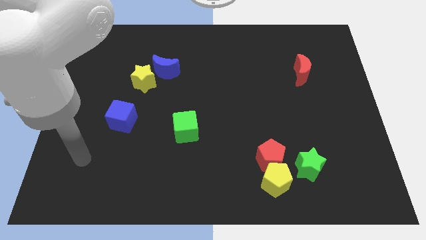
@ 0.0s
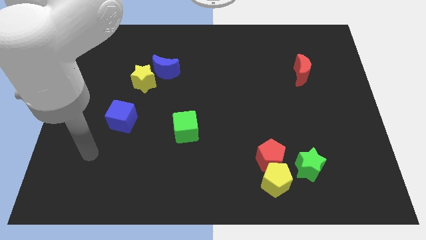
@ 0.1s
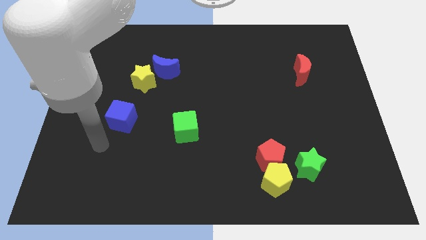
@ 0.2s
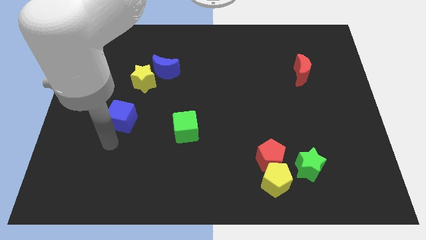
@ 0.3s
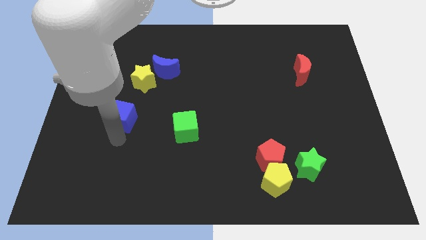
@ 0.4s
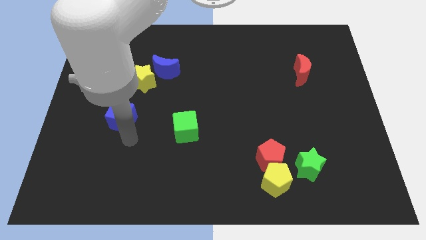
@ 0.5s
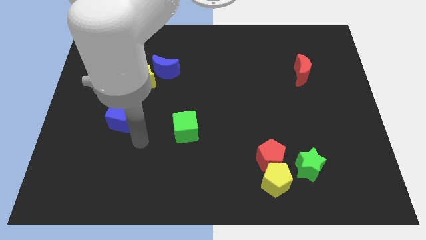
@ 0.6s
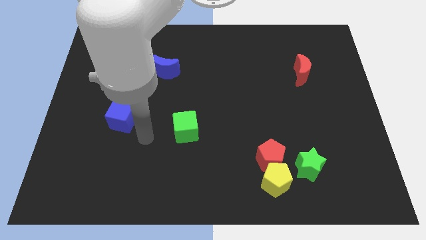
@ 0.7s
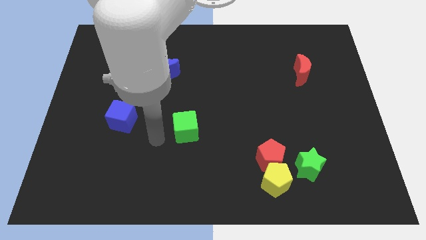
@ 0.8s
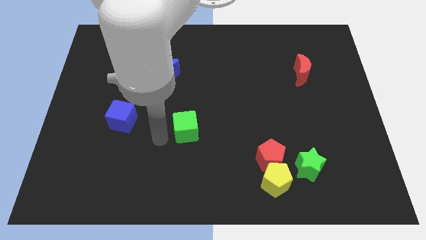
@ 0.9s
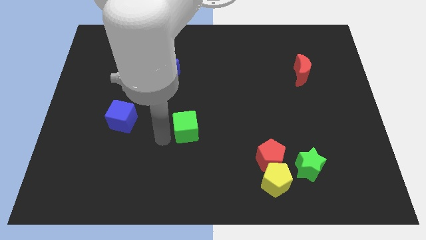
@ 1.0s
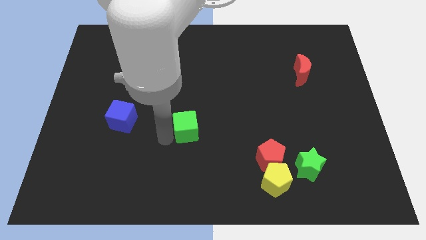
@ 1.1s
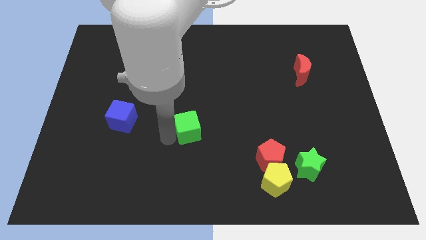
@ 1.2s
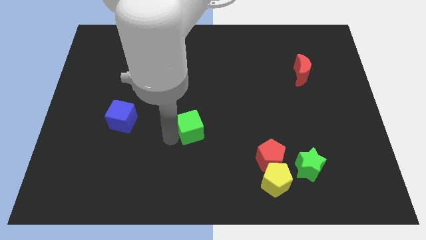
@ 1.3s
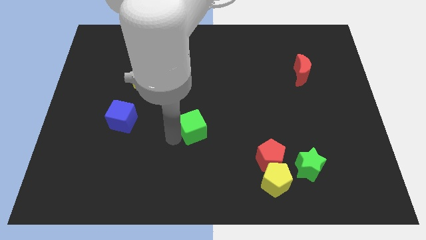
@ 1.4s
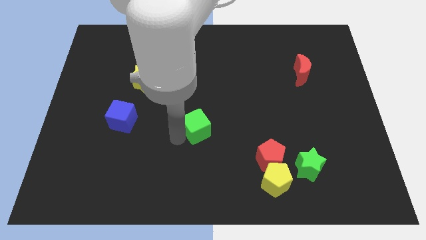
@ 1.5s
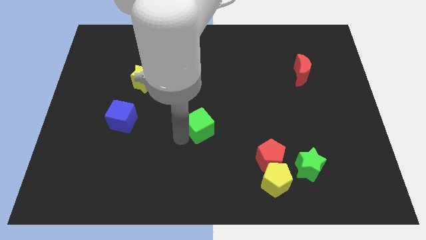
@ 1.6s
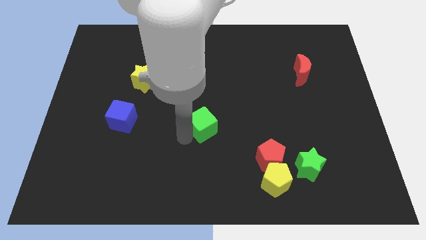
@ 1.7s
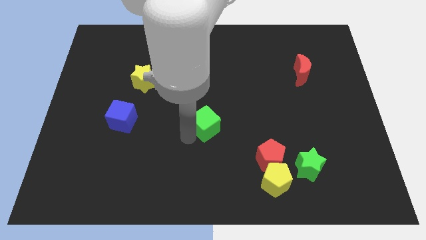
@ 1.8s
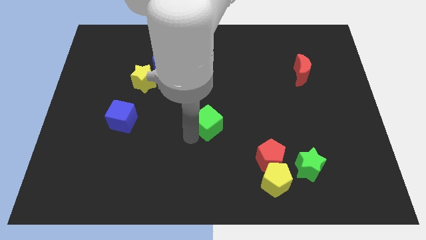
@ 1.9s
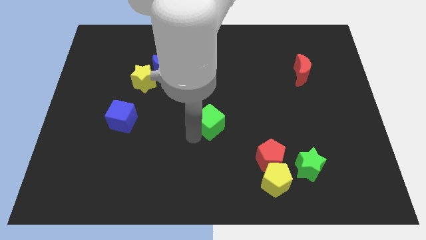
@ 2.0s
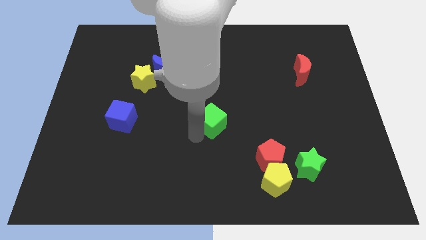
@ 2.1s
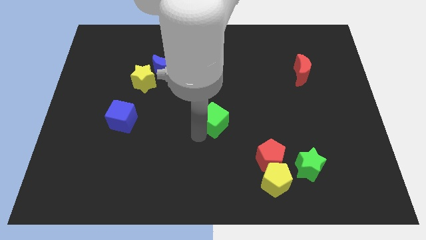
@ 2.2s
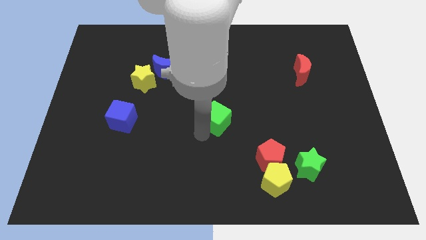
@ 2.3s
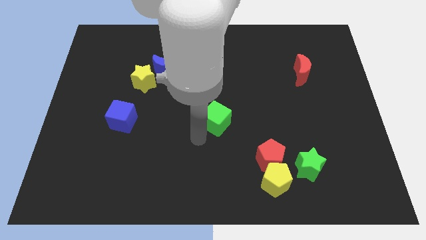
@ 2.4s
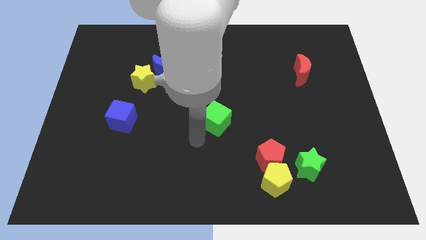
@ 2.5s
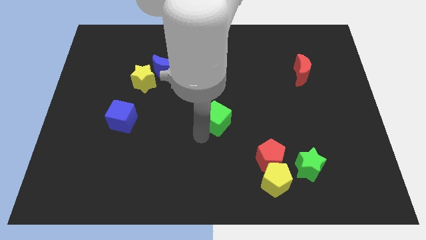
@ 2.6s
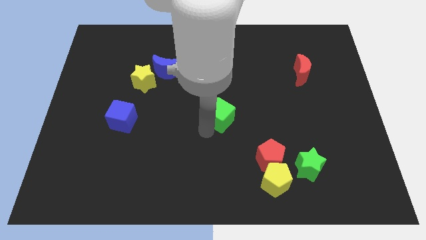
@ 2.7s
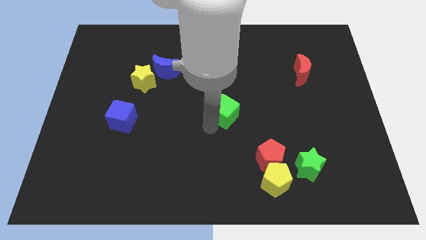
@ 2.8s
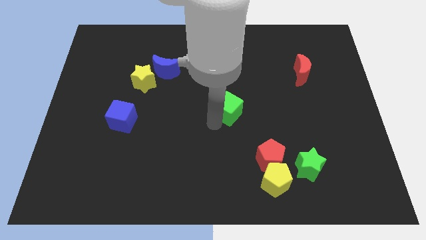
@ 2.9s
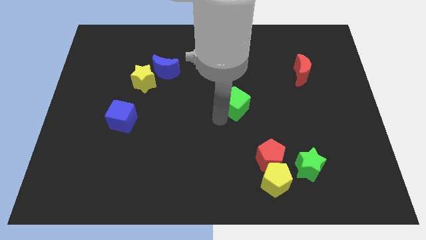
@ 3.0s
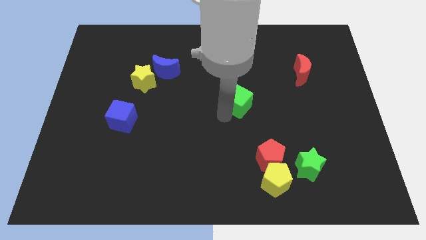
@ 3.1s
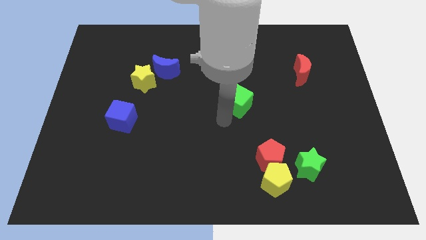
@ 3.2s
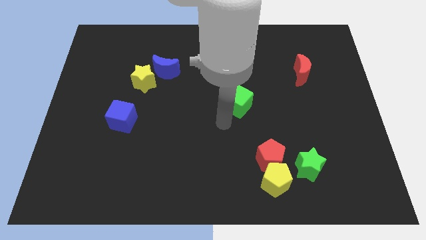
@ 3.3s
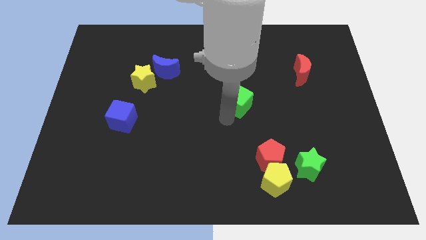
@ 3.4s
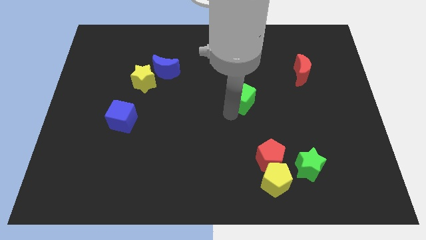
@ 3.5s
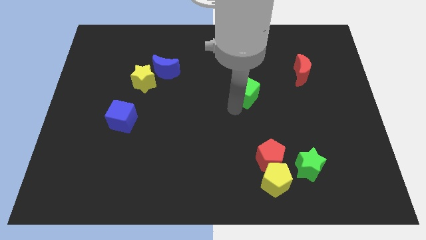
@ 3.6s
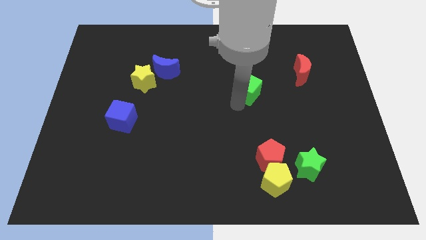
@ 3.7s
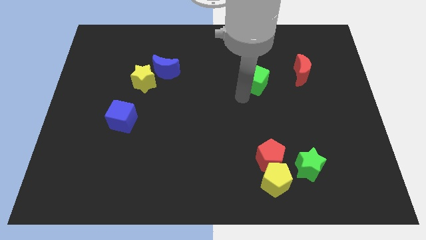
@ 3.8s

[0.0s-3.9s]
move the green cube upwards and right

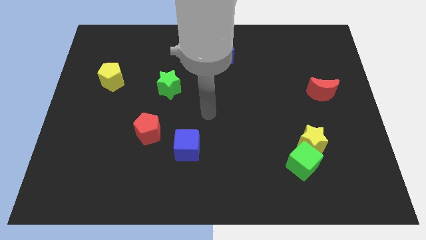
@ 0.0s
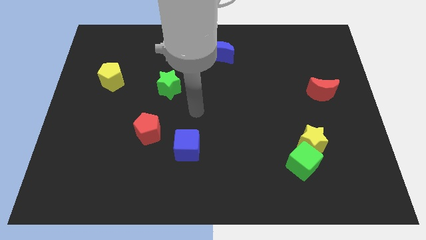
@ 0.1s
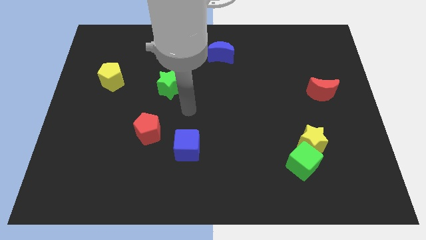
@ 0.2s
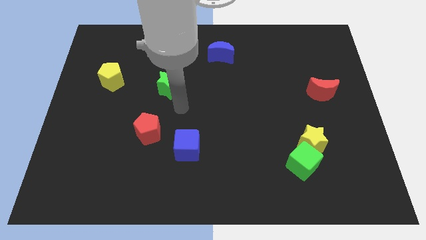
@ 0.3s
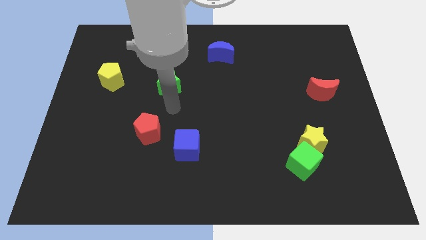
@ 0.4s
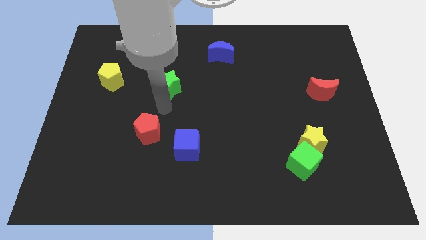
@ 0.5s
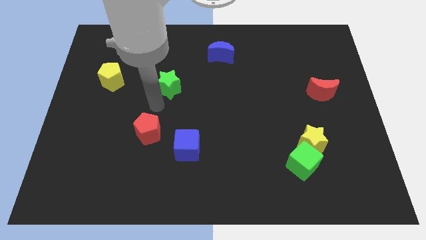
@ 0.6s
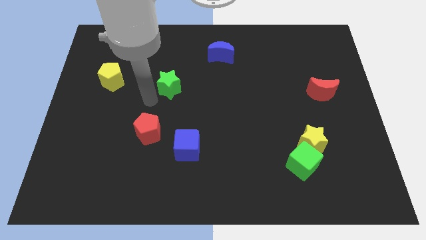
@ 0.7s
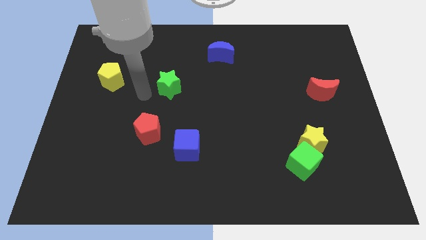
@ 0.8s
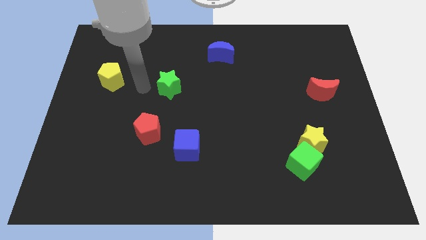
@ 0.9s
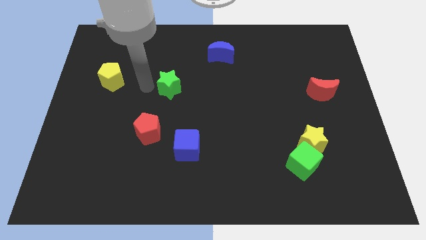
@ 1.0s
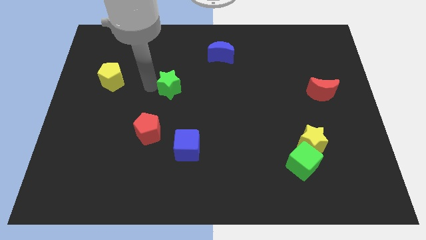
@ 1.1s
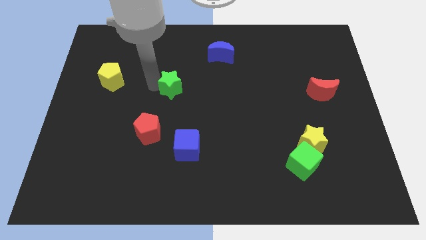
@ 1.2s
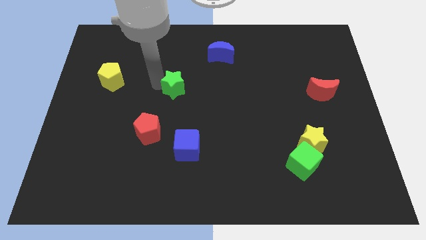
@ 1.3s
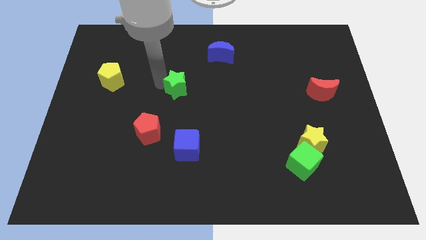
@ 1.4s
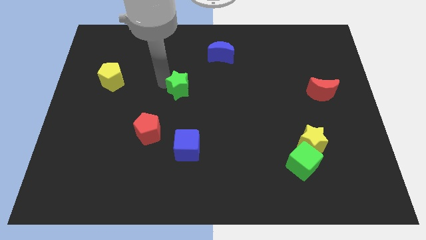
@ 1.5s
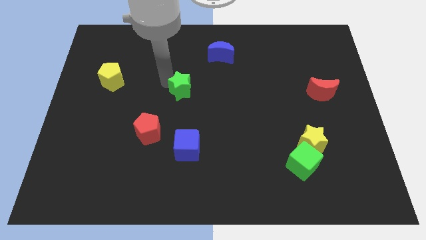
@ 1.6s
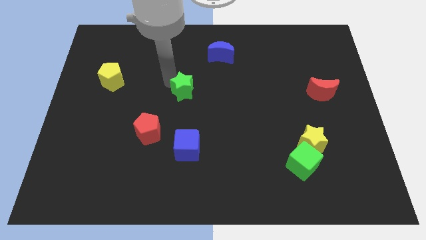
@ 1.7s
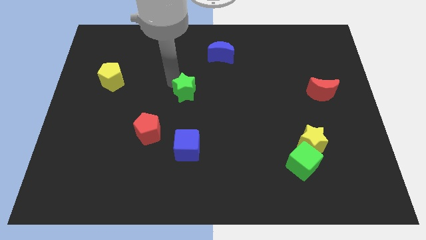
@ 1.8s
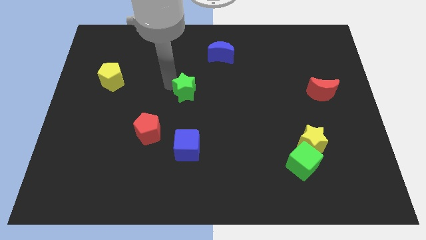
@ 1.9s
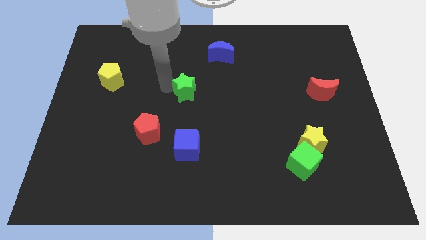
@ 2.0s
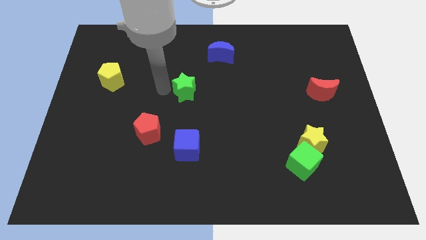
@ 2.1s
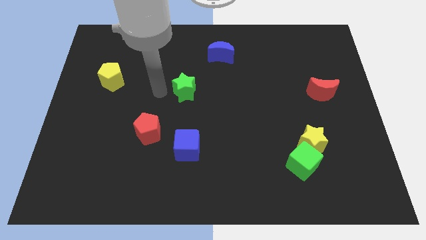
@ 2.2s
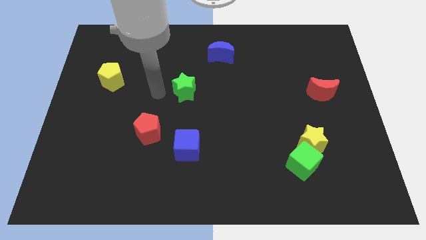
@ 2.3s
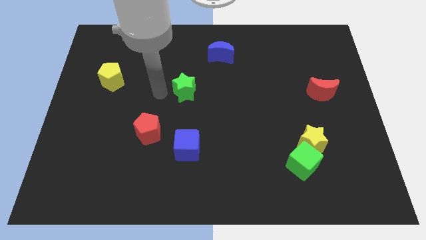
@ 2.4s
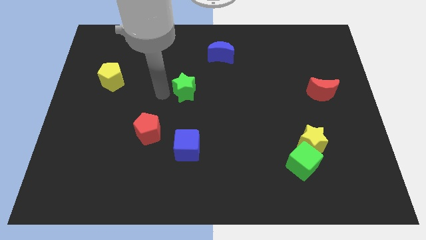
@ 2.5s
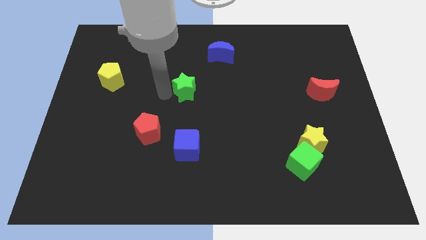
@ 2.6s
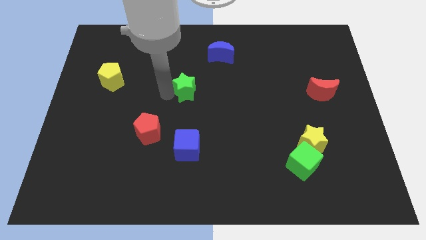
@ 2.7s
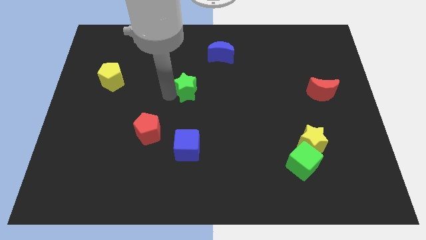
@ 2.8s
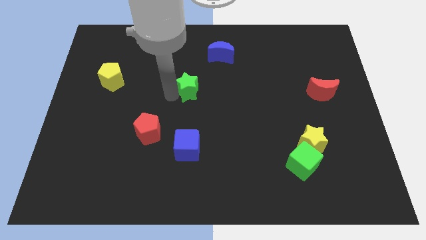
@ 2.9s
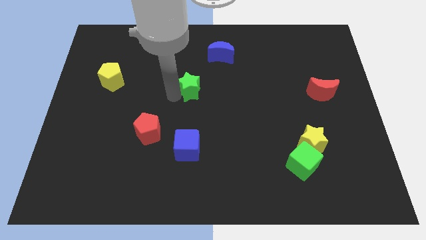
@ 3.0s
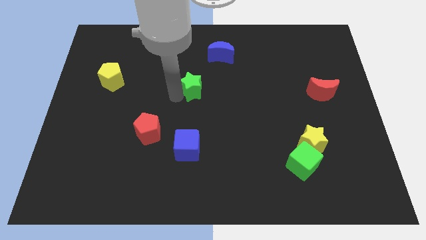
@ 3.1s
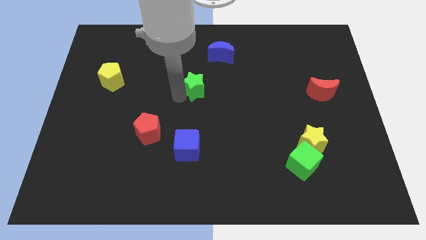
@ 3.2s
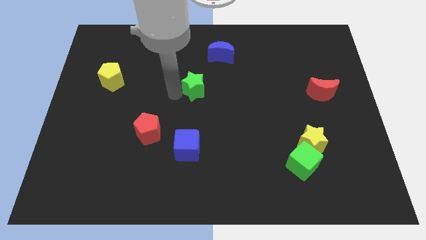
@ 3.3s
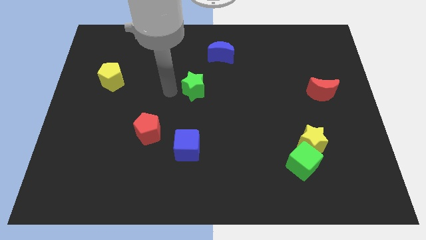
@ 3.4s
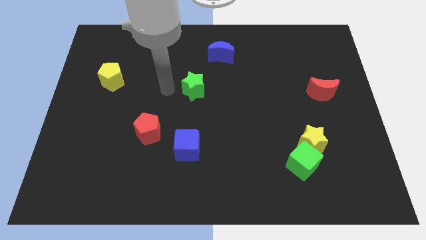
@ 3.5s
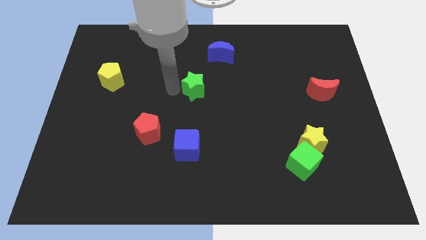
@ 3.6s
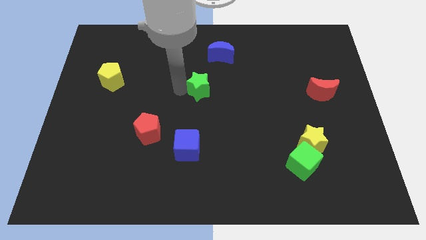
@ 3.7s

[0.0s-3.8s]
move the green star slightly to the right

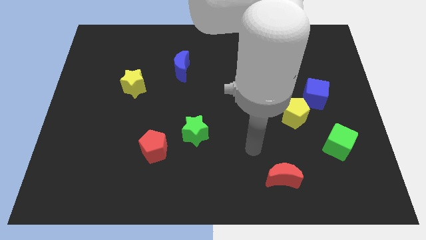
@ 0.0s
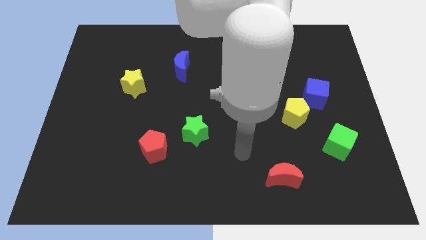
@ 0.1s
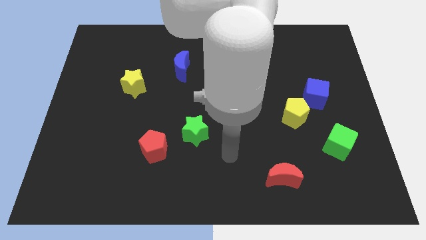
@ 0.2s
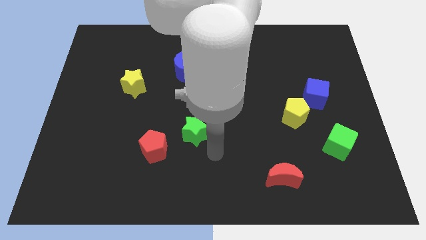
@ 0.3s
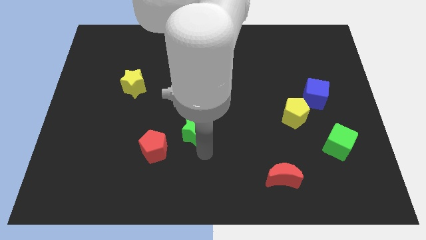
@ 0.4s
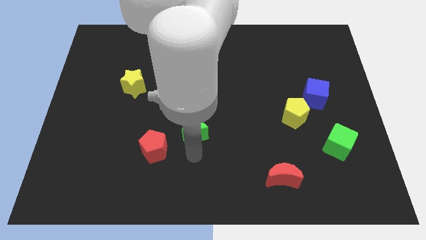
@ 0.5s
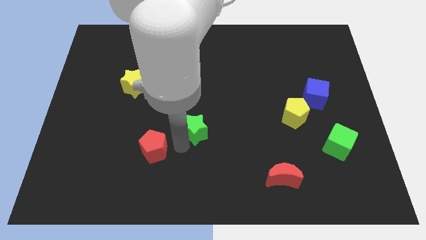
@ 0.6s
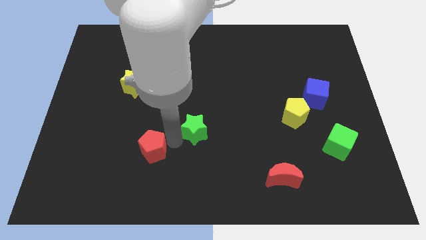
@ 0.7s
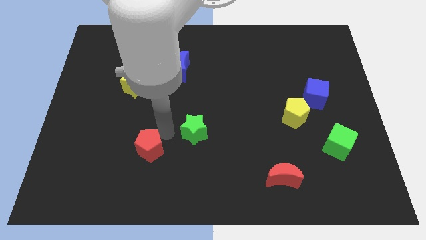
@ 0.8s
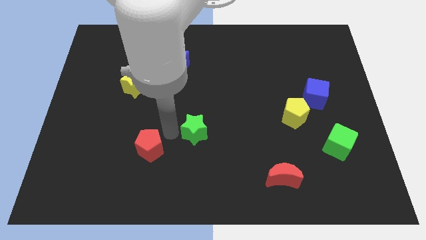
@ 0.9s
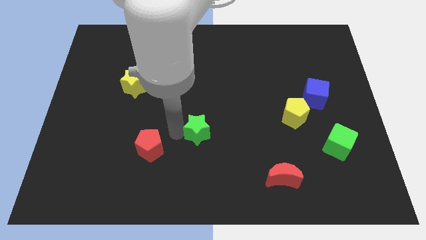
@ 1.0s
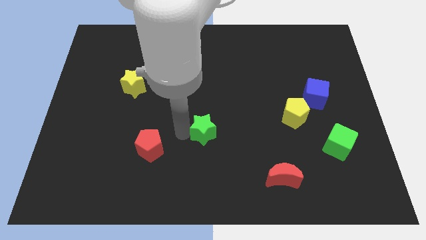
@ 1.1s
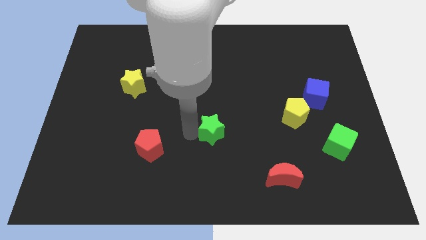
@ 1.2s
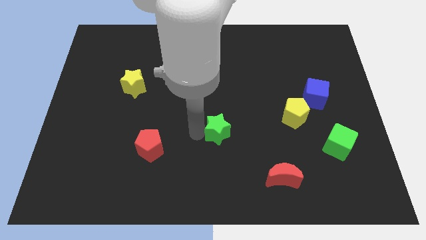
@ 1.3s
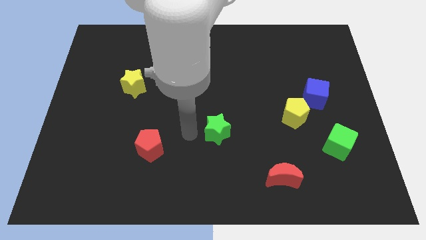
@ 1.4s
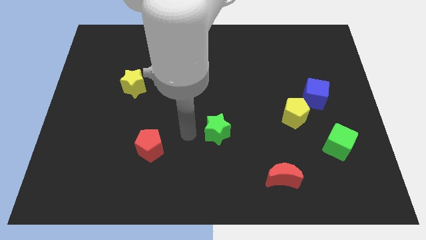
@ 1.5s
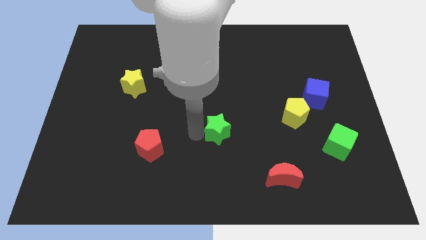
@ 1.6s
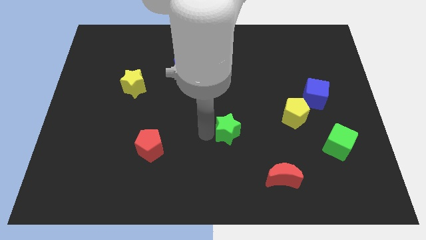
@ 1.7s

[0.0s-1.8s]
move the green star a little bit right
